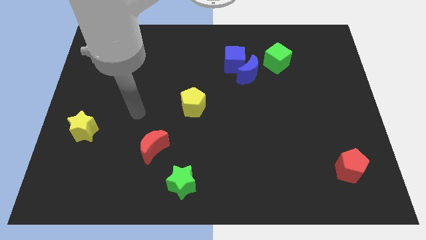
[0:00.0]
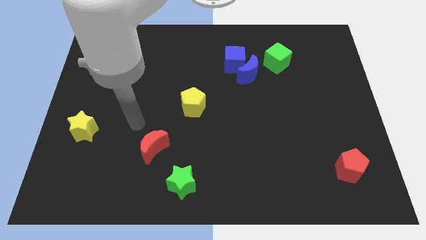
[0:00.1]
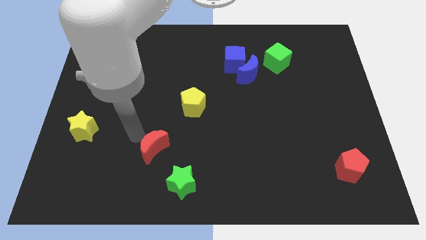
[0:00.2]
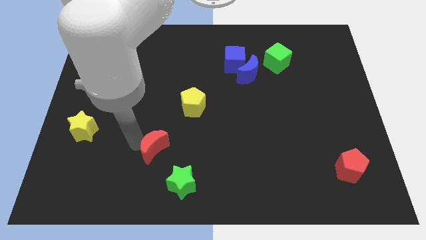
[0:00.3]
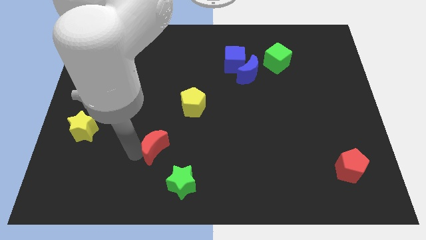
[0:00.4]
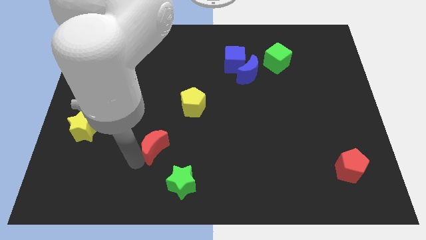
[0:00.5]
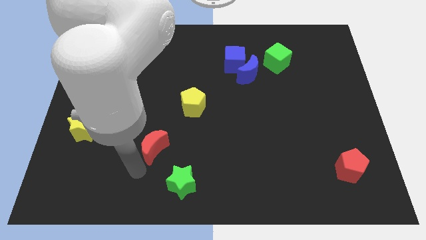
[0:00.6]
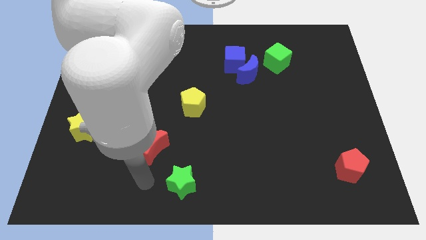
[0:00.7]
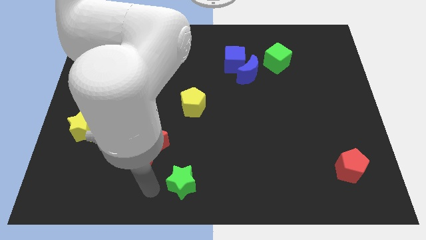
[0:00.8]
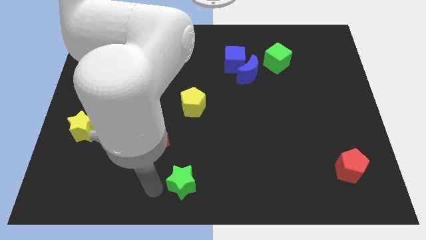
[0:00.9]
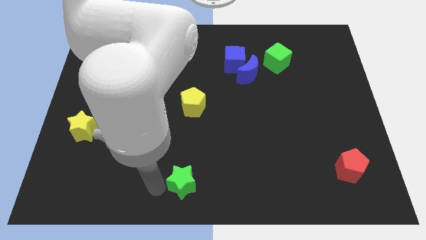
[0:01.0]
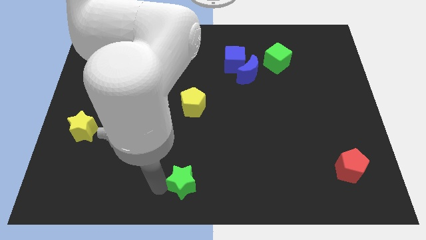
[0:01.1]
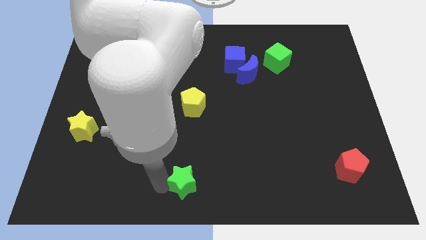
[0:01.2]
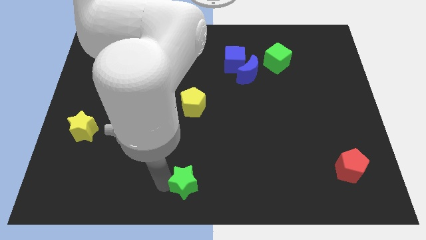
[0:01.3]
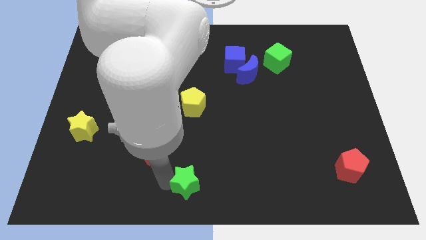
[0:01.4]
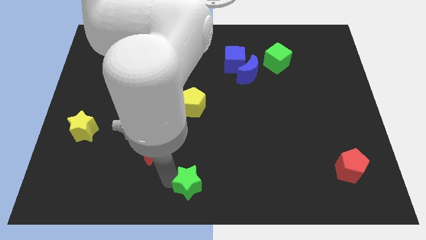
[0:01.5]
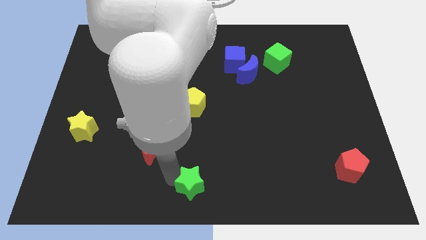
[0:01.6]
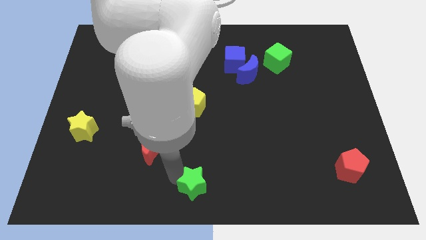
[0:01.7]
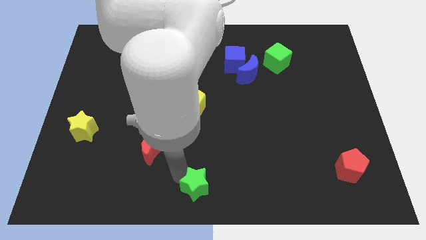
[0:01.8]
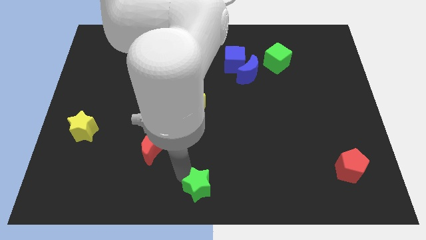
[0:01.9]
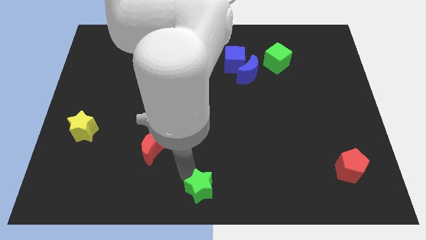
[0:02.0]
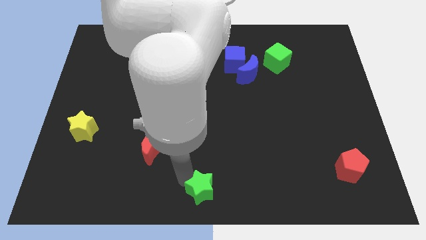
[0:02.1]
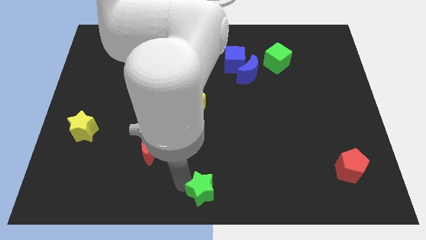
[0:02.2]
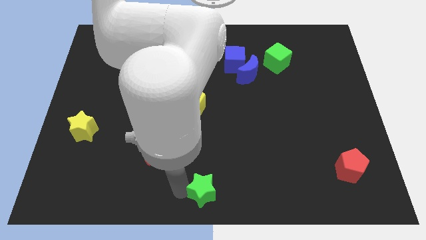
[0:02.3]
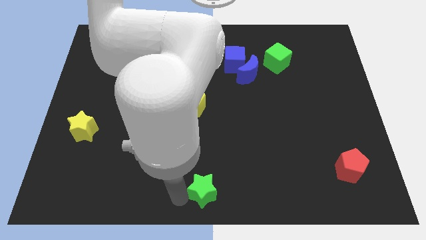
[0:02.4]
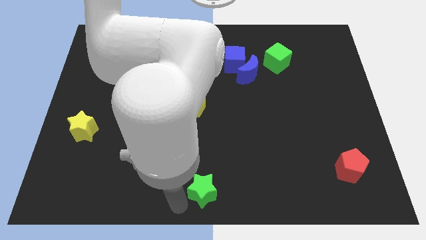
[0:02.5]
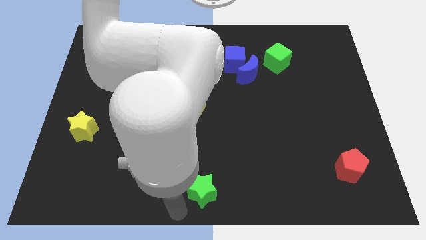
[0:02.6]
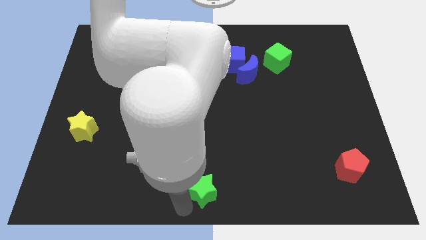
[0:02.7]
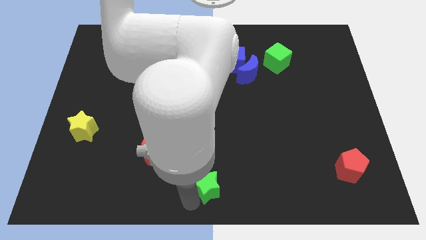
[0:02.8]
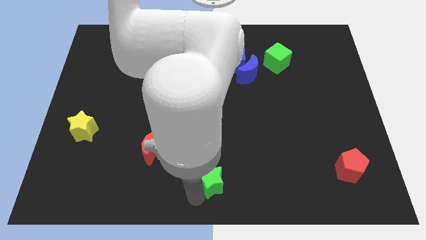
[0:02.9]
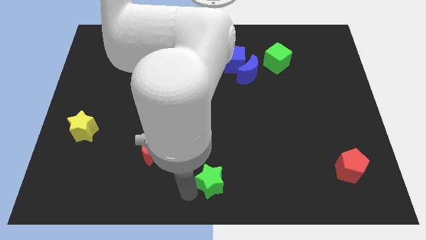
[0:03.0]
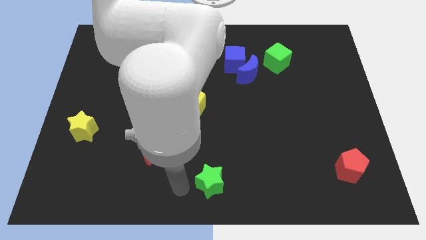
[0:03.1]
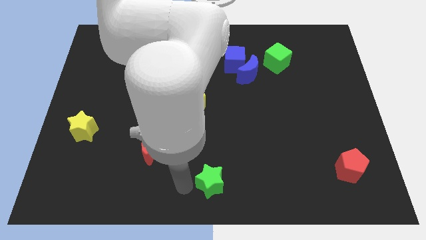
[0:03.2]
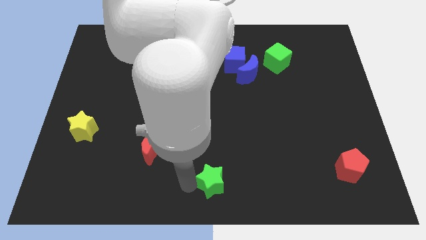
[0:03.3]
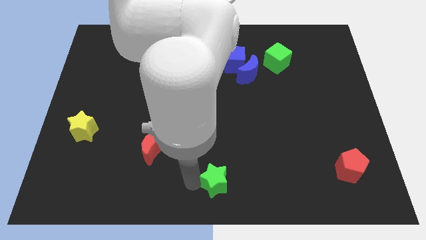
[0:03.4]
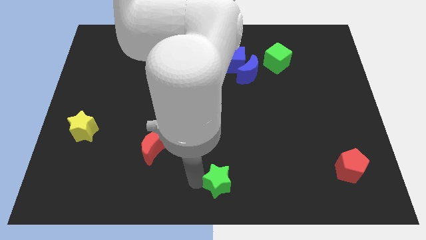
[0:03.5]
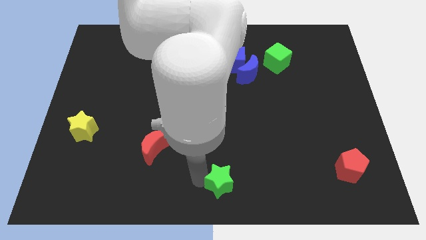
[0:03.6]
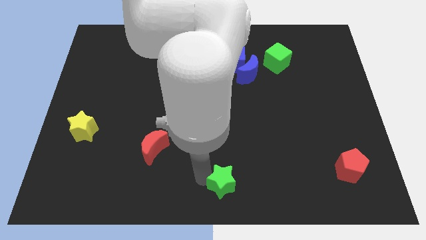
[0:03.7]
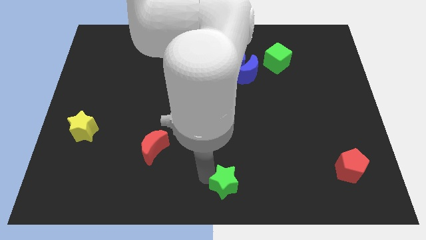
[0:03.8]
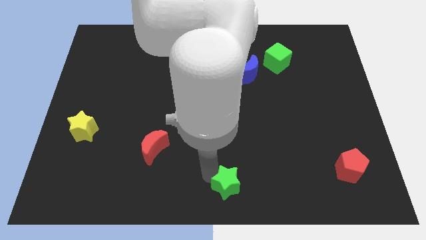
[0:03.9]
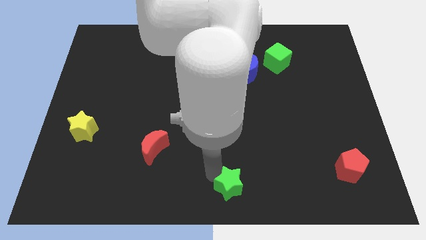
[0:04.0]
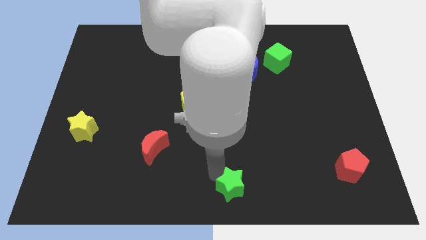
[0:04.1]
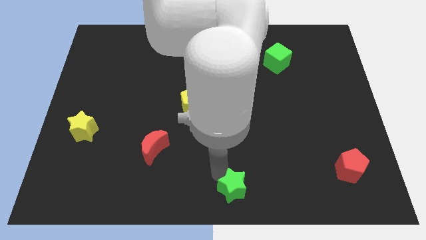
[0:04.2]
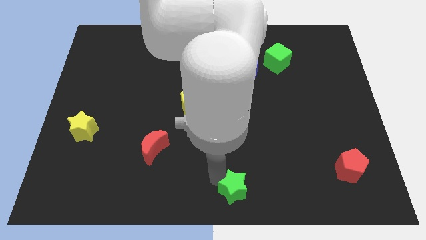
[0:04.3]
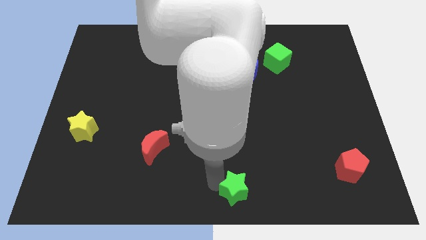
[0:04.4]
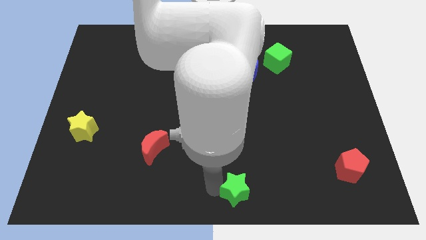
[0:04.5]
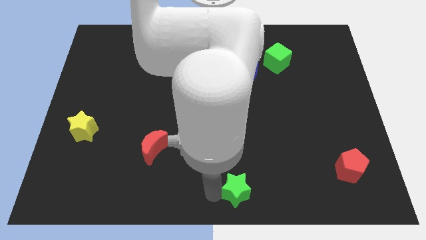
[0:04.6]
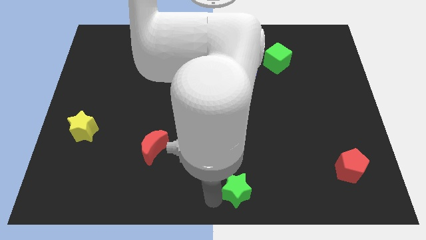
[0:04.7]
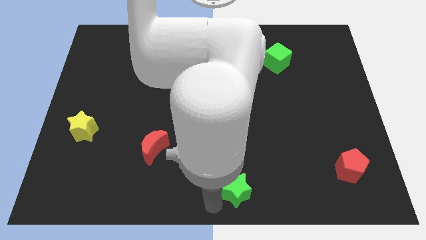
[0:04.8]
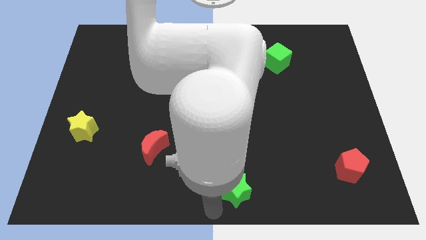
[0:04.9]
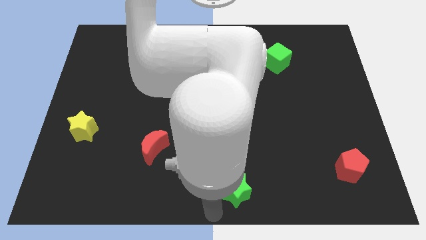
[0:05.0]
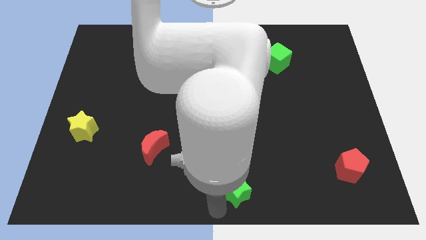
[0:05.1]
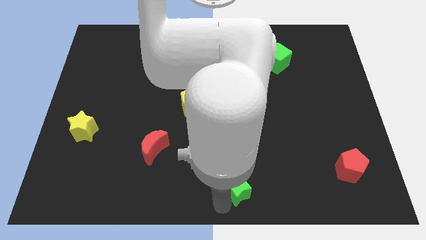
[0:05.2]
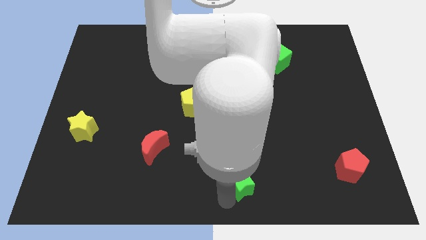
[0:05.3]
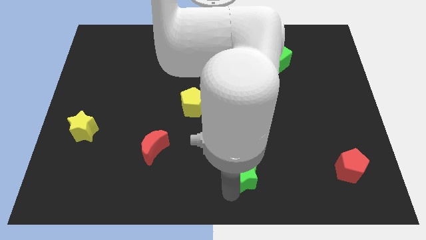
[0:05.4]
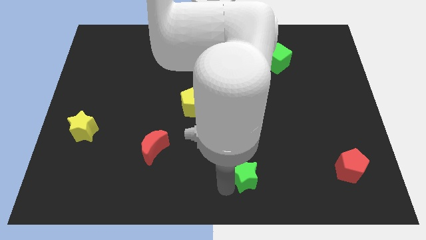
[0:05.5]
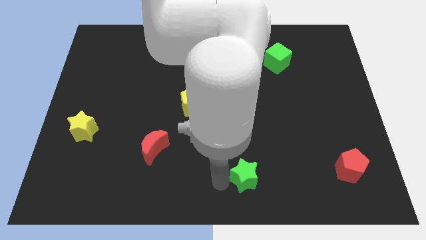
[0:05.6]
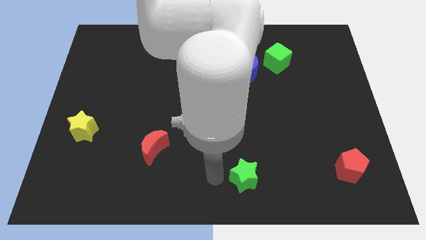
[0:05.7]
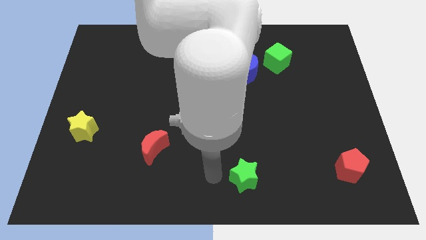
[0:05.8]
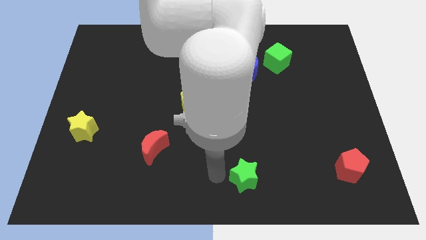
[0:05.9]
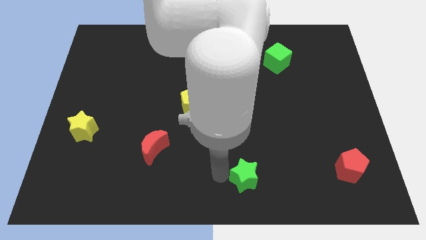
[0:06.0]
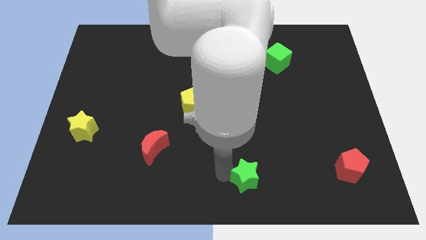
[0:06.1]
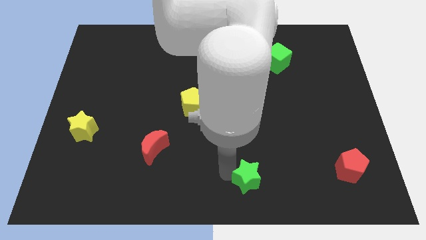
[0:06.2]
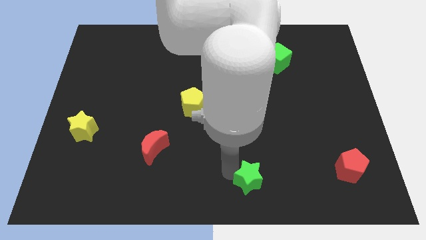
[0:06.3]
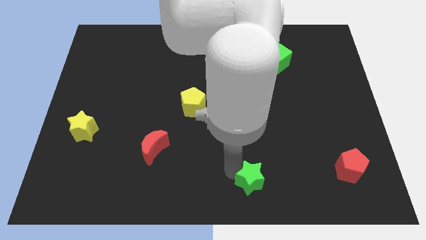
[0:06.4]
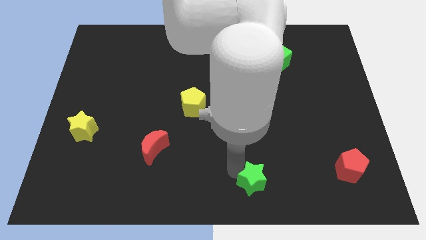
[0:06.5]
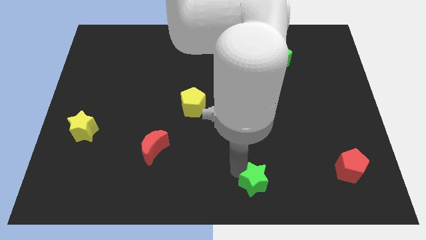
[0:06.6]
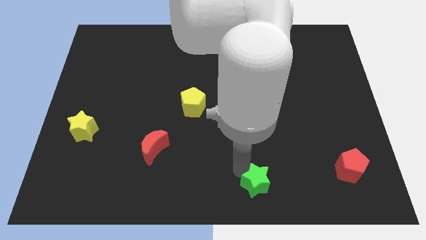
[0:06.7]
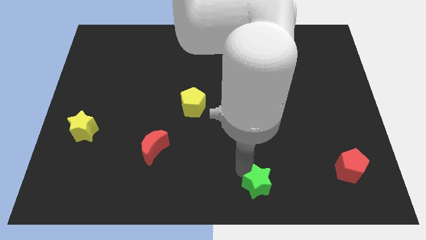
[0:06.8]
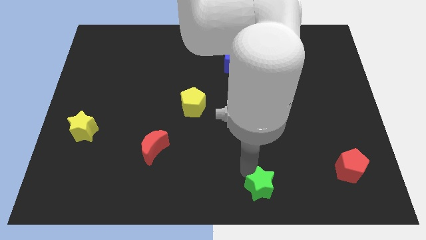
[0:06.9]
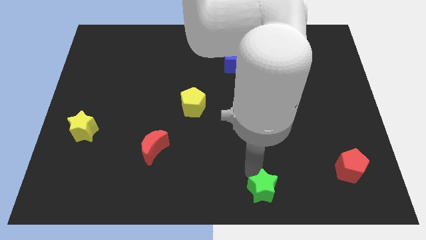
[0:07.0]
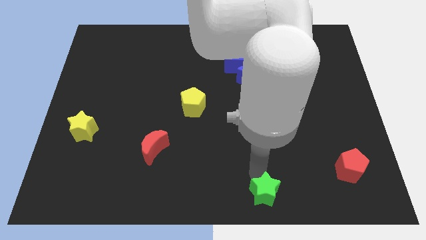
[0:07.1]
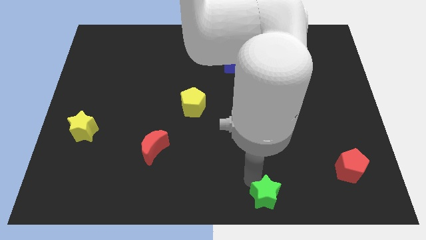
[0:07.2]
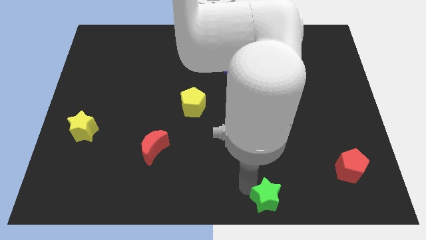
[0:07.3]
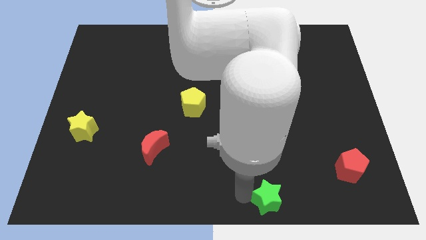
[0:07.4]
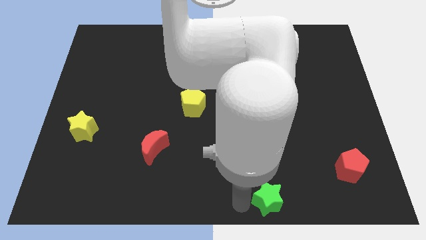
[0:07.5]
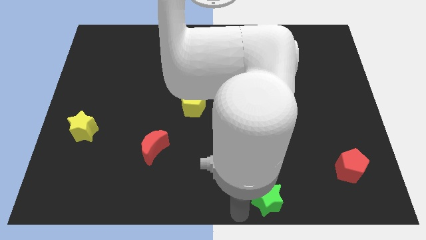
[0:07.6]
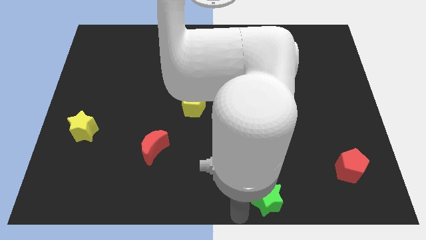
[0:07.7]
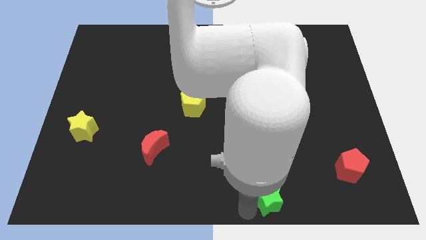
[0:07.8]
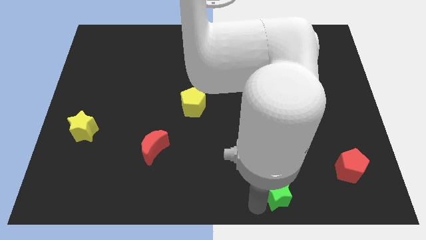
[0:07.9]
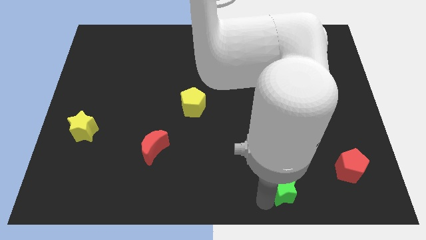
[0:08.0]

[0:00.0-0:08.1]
slide the green star to the right

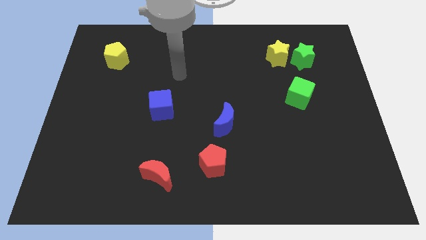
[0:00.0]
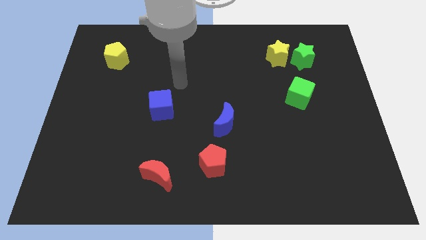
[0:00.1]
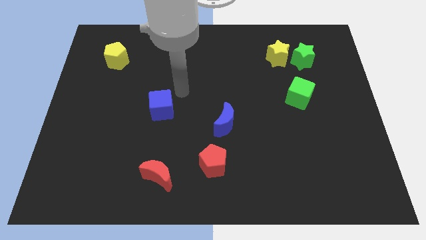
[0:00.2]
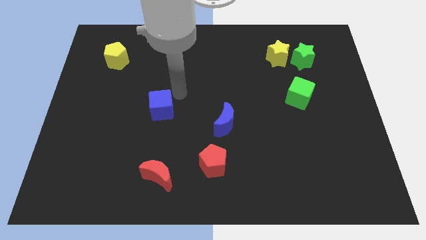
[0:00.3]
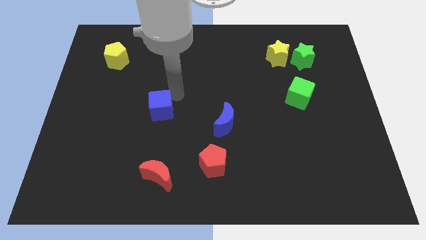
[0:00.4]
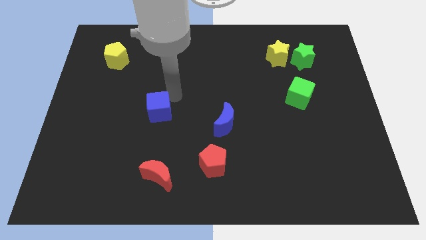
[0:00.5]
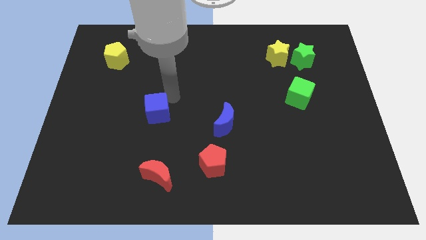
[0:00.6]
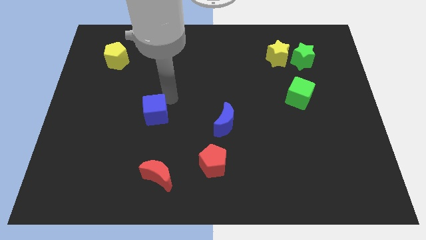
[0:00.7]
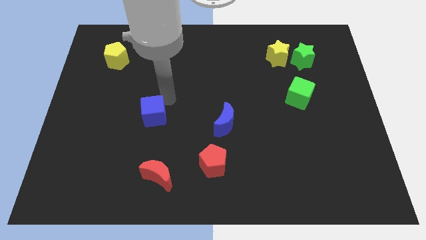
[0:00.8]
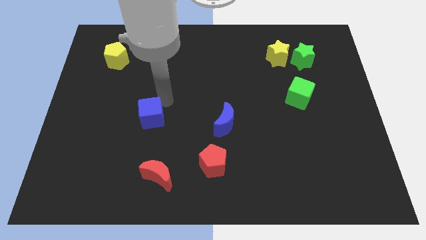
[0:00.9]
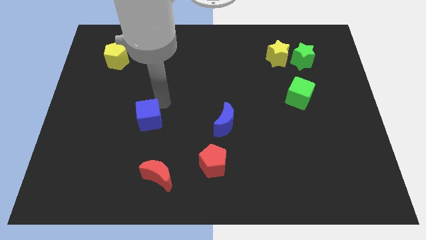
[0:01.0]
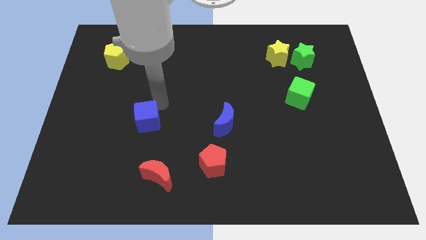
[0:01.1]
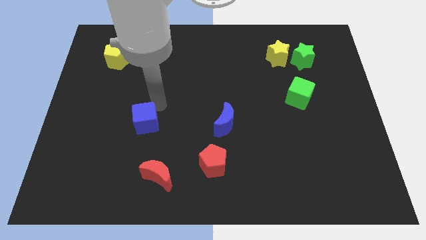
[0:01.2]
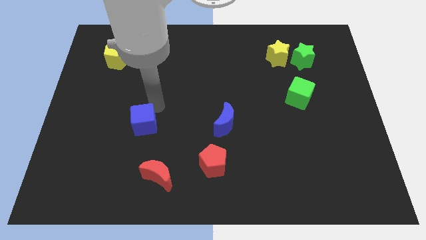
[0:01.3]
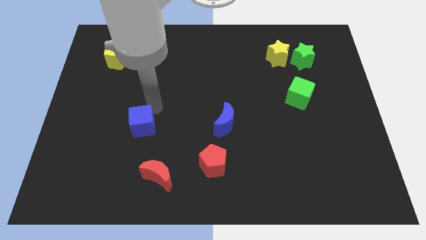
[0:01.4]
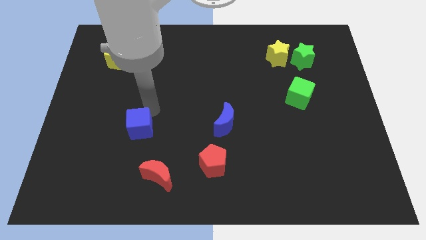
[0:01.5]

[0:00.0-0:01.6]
move the blue cube diagonally downwards and to the left a little
